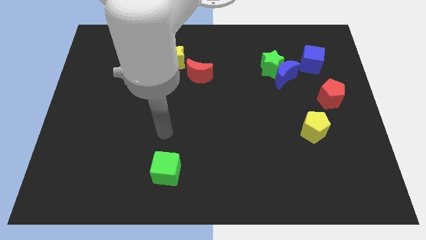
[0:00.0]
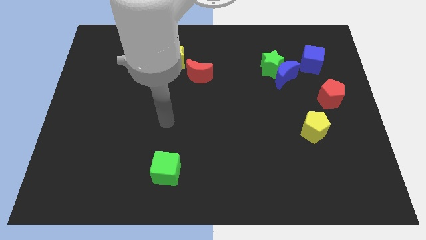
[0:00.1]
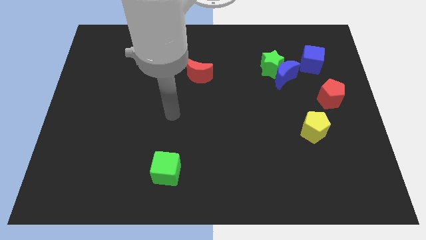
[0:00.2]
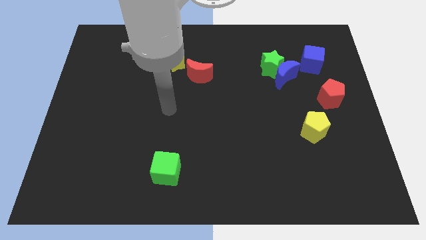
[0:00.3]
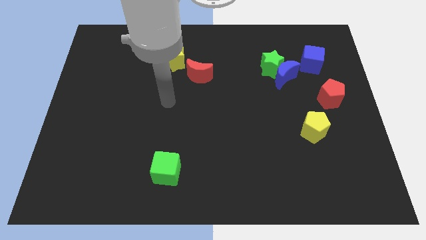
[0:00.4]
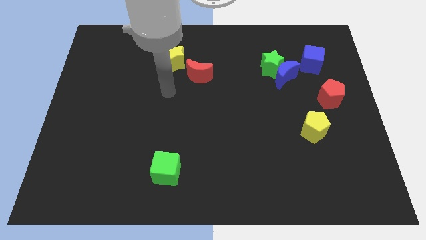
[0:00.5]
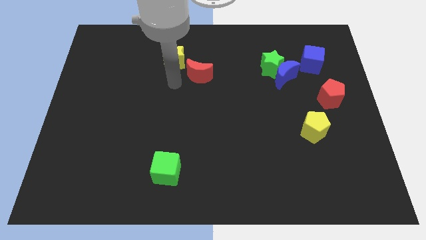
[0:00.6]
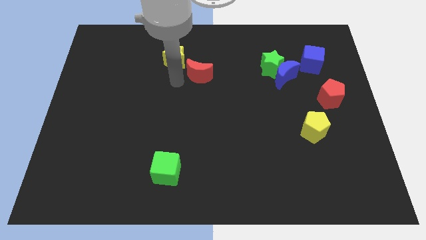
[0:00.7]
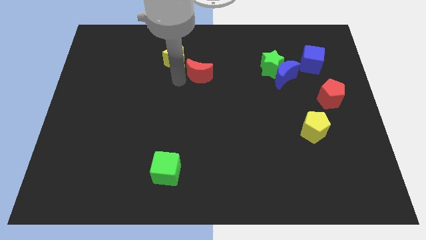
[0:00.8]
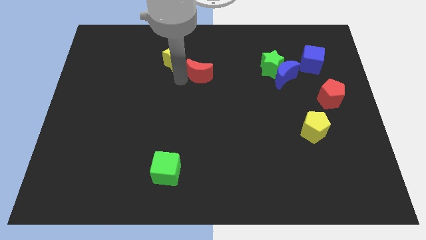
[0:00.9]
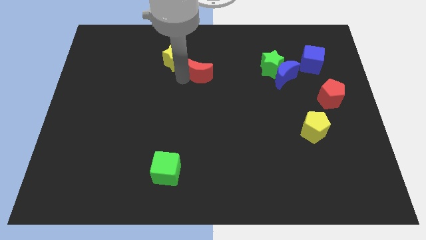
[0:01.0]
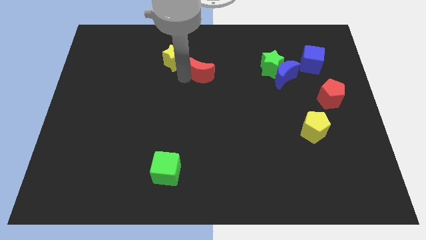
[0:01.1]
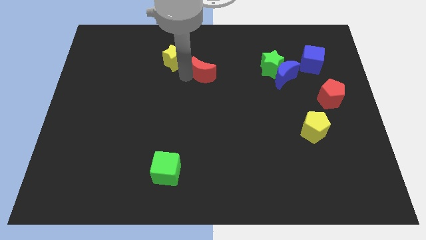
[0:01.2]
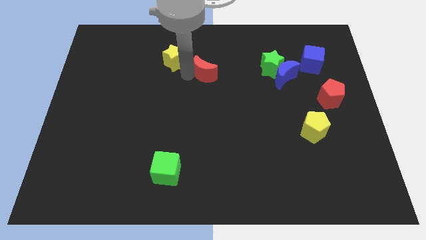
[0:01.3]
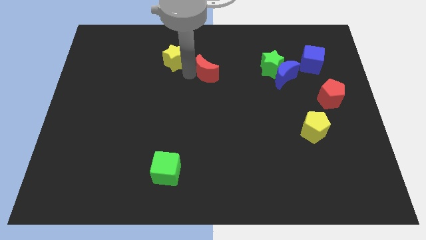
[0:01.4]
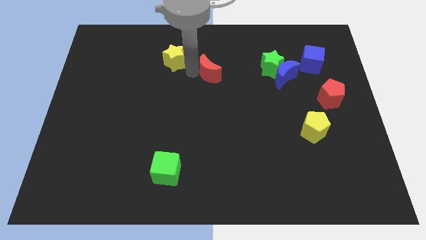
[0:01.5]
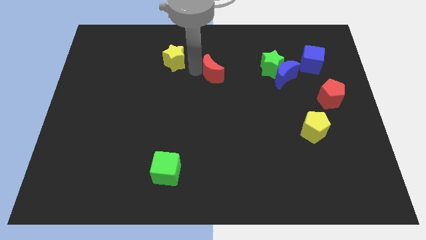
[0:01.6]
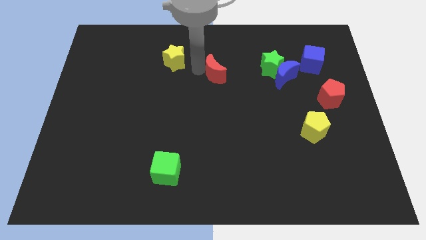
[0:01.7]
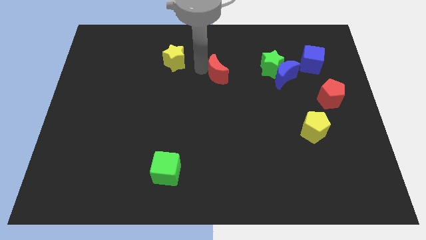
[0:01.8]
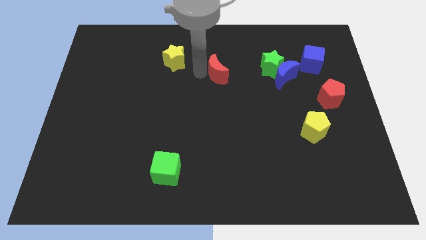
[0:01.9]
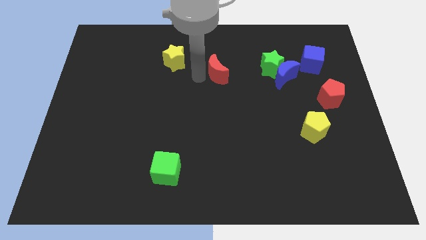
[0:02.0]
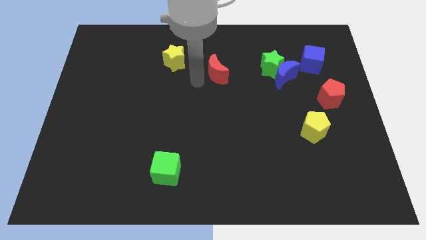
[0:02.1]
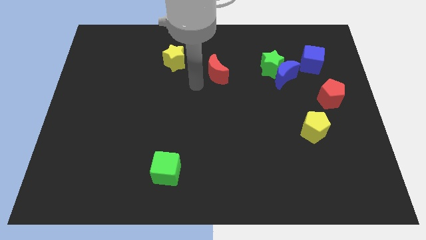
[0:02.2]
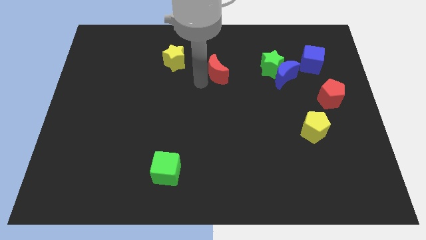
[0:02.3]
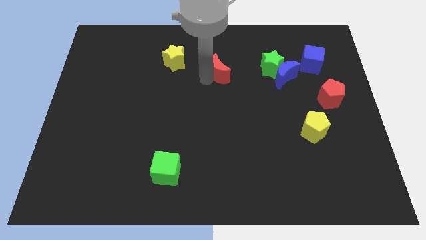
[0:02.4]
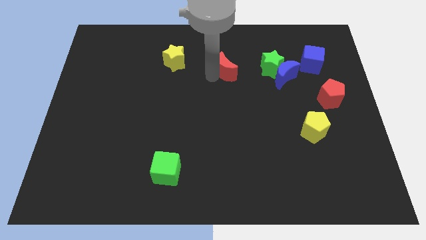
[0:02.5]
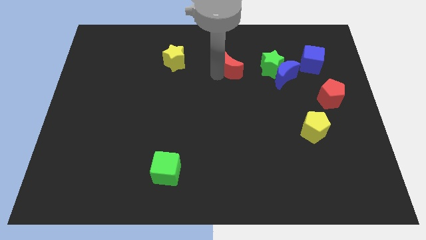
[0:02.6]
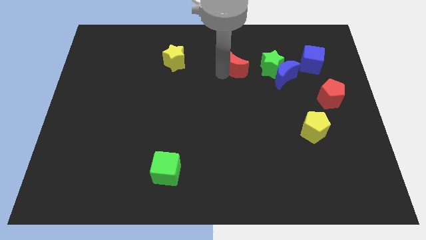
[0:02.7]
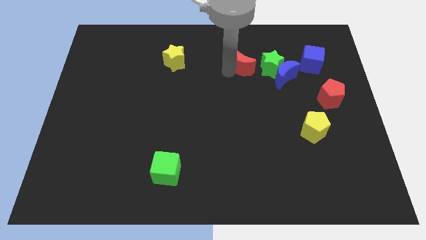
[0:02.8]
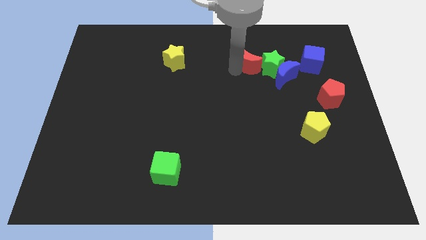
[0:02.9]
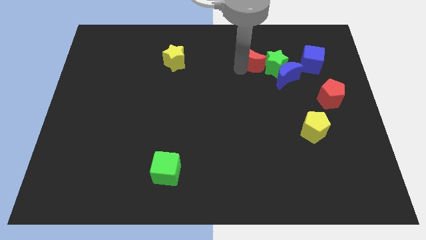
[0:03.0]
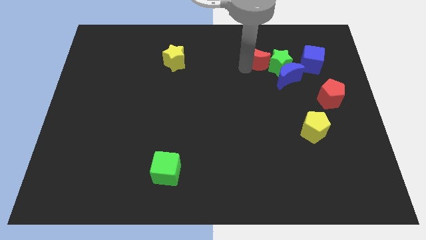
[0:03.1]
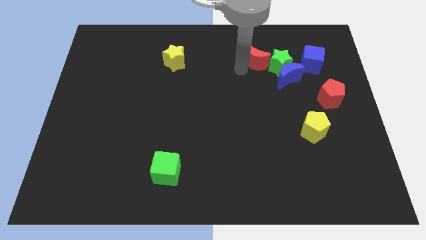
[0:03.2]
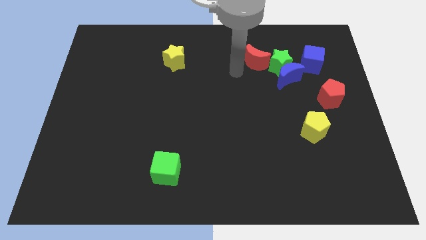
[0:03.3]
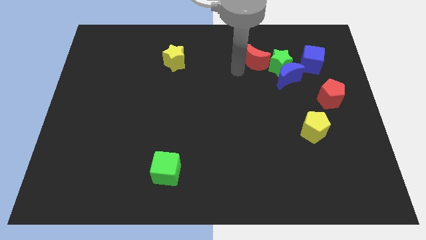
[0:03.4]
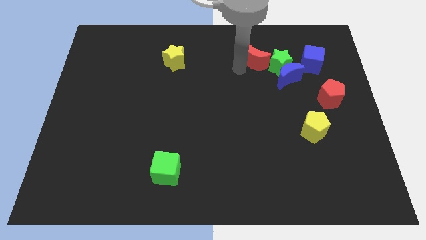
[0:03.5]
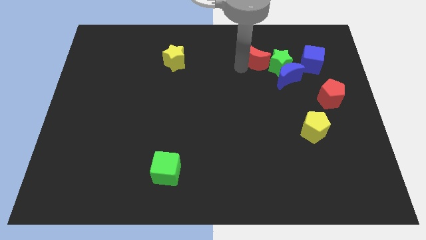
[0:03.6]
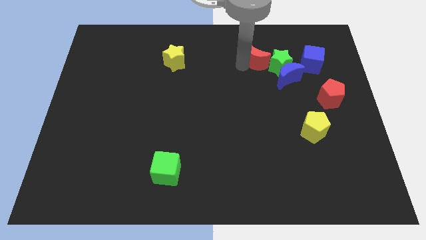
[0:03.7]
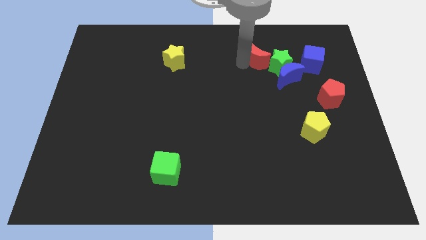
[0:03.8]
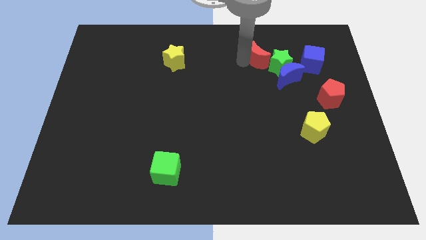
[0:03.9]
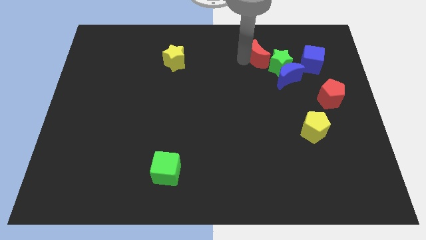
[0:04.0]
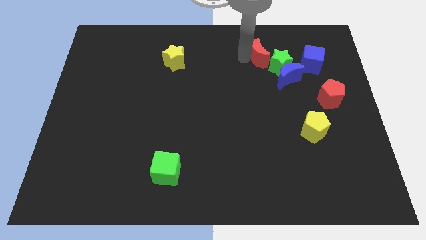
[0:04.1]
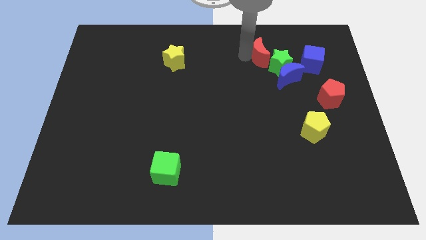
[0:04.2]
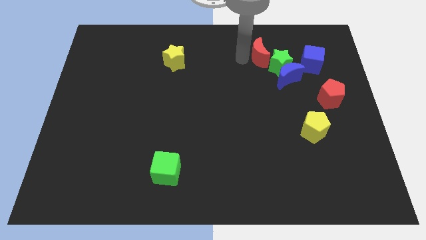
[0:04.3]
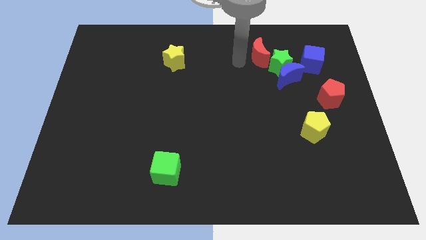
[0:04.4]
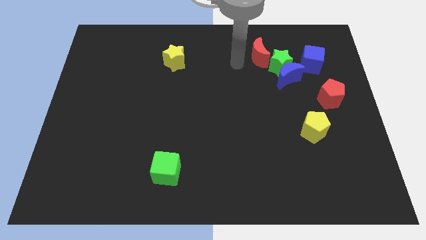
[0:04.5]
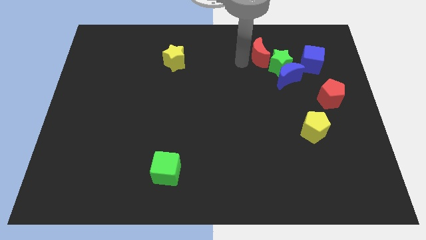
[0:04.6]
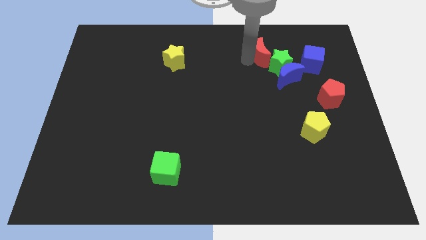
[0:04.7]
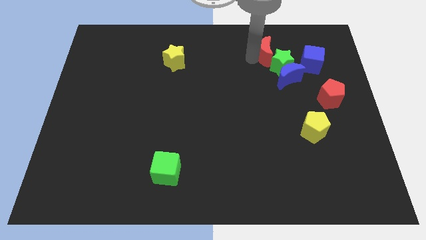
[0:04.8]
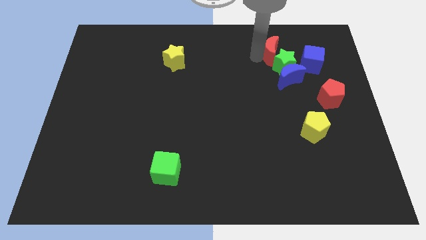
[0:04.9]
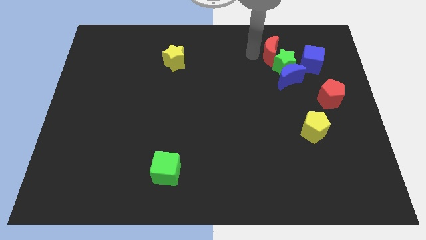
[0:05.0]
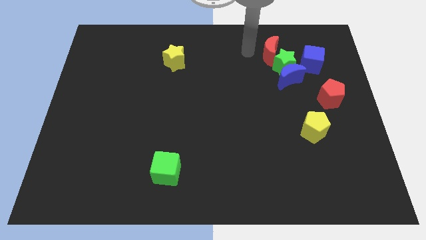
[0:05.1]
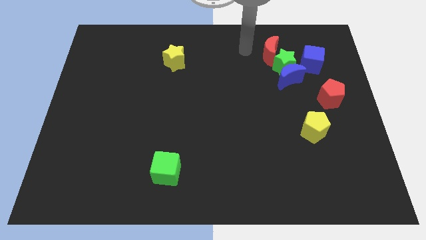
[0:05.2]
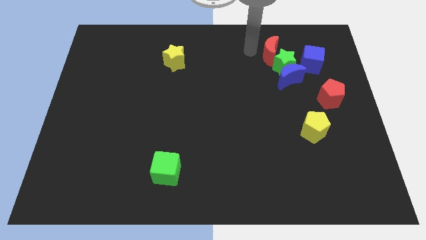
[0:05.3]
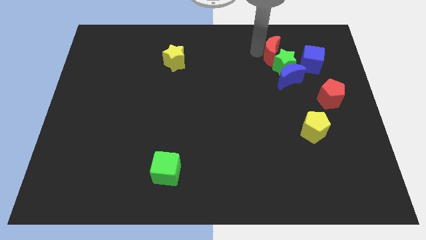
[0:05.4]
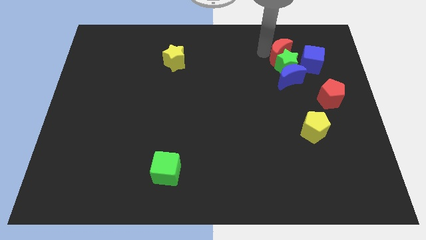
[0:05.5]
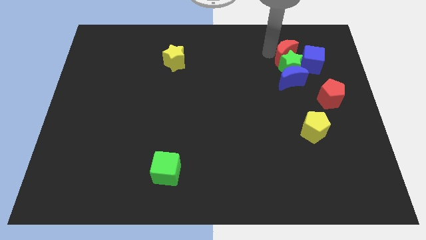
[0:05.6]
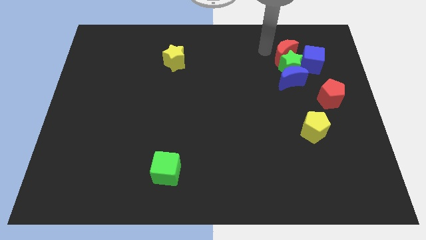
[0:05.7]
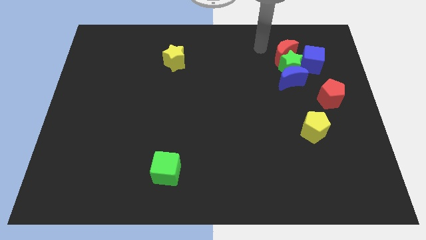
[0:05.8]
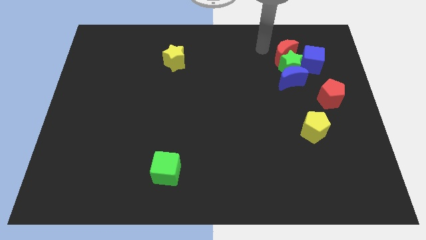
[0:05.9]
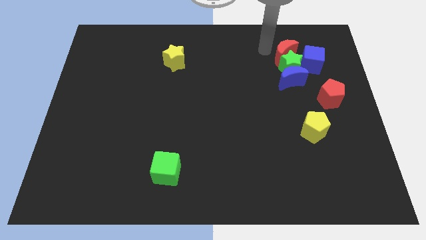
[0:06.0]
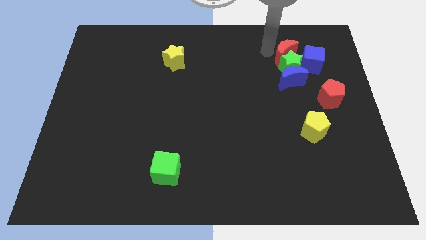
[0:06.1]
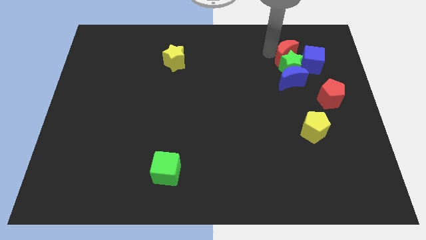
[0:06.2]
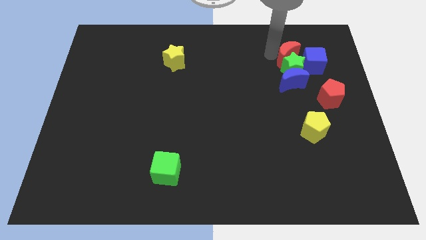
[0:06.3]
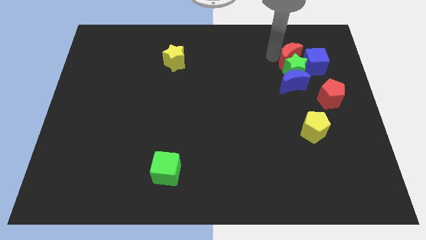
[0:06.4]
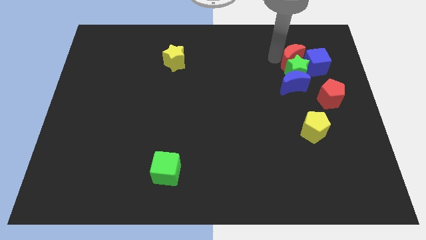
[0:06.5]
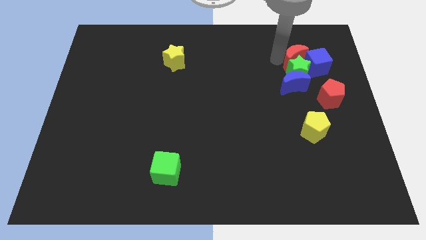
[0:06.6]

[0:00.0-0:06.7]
slide the red moon to the blue cube
